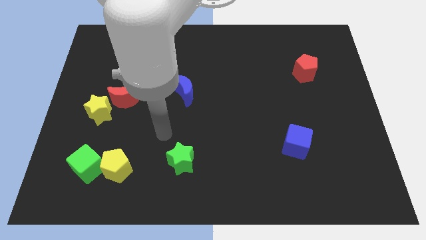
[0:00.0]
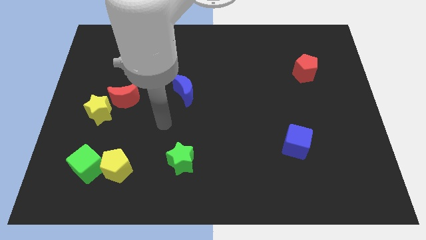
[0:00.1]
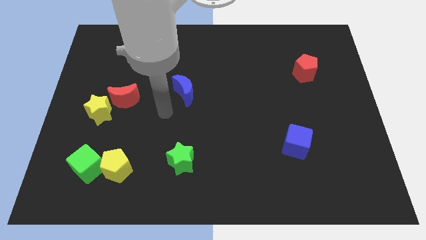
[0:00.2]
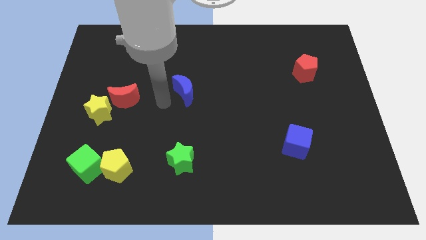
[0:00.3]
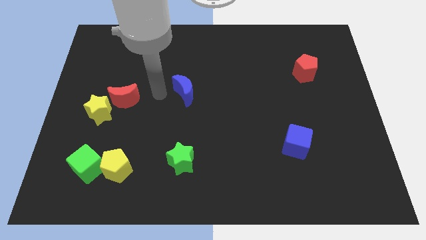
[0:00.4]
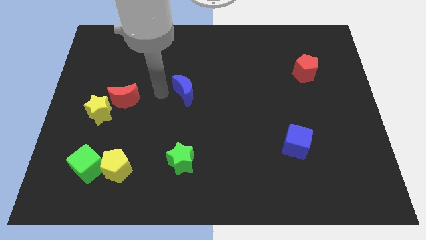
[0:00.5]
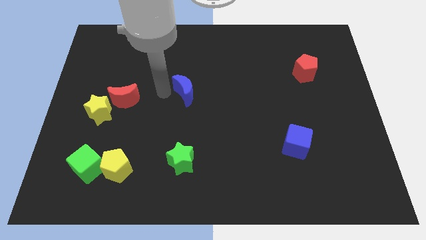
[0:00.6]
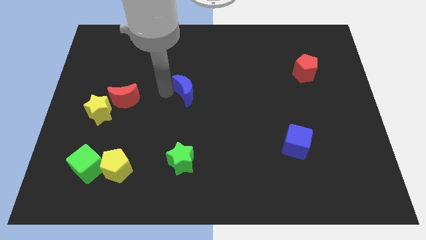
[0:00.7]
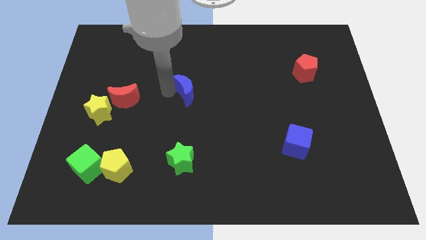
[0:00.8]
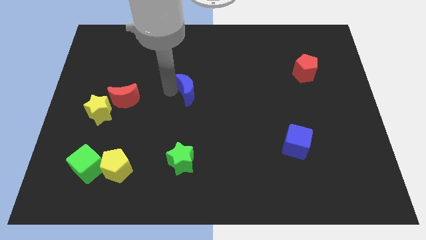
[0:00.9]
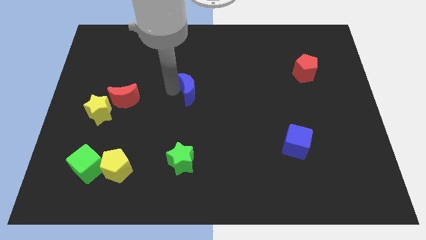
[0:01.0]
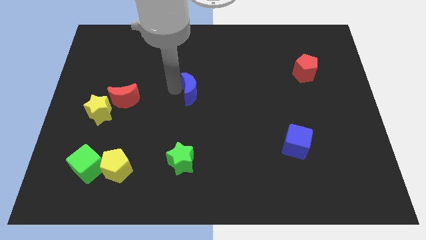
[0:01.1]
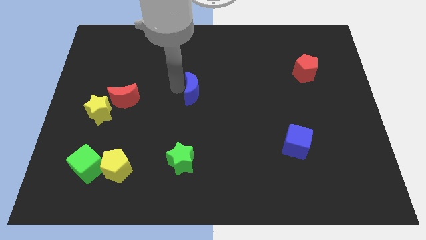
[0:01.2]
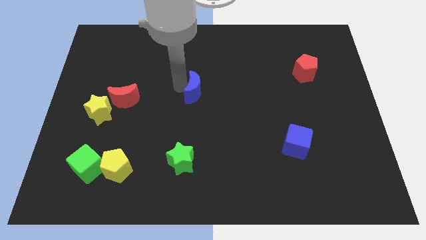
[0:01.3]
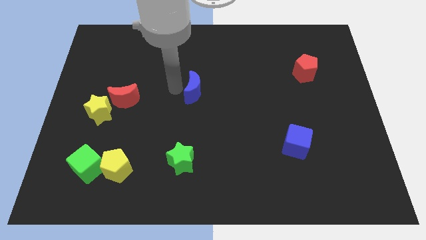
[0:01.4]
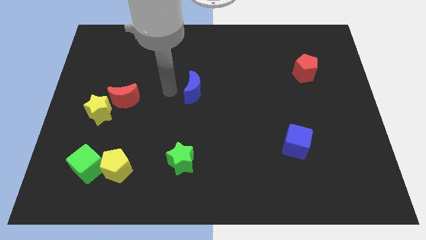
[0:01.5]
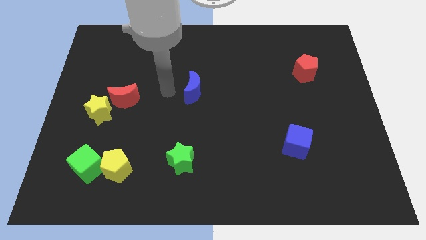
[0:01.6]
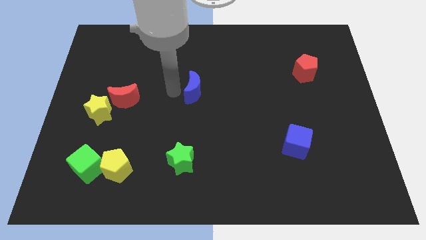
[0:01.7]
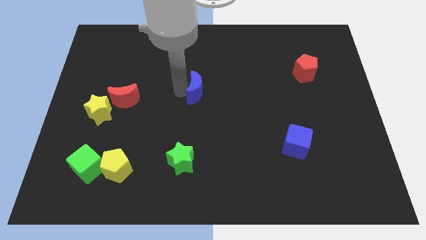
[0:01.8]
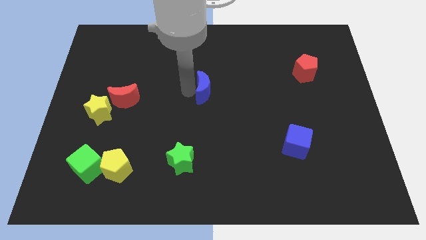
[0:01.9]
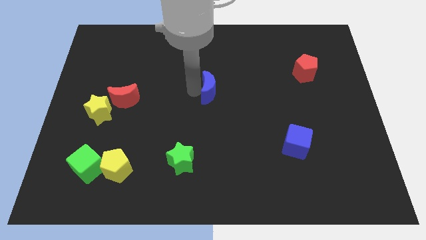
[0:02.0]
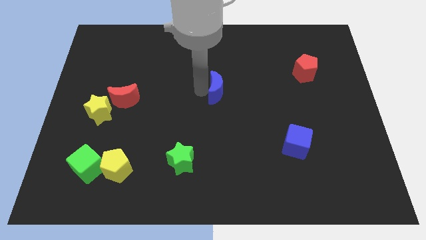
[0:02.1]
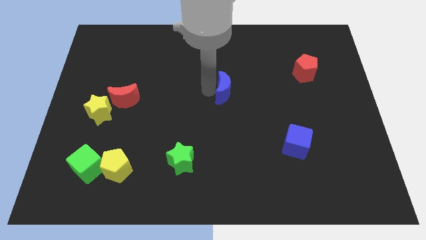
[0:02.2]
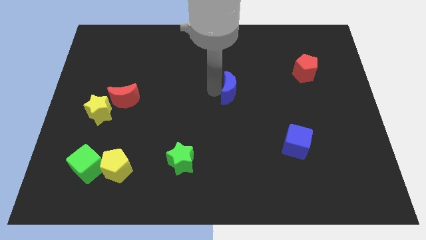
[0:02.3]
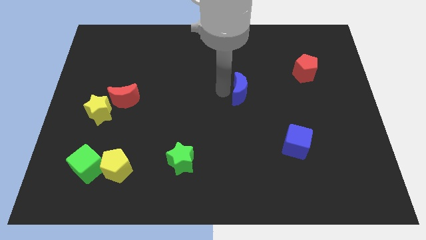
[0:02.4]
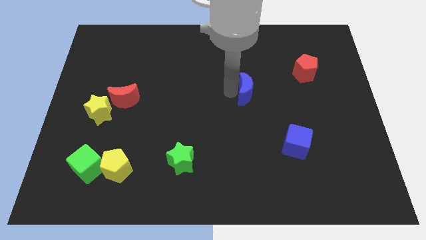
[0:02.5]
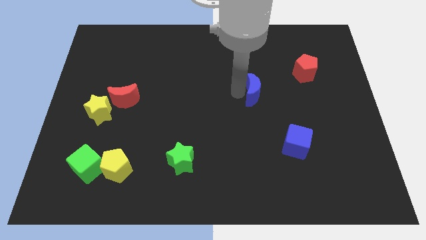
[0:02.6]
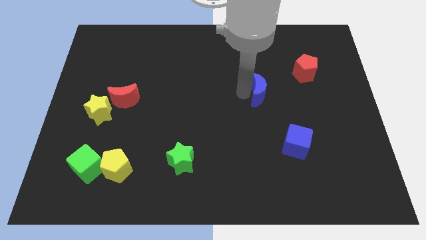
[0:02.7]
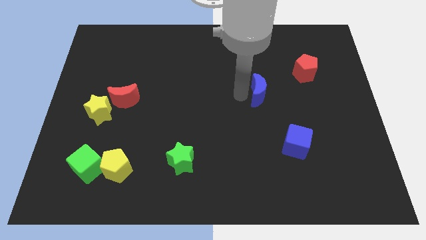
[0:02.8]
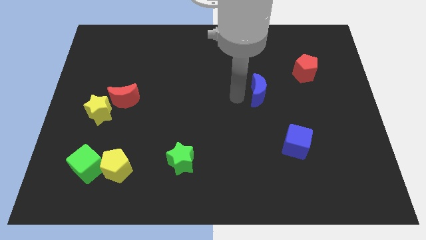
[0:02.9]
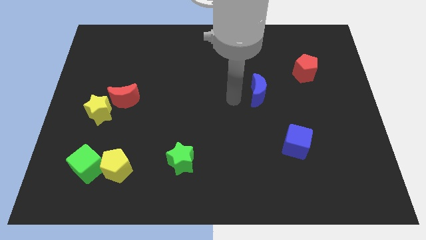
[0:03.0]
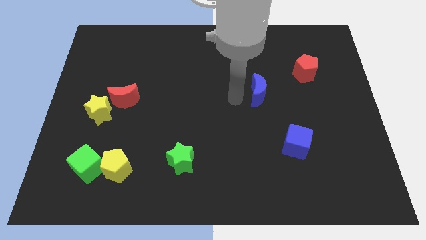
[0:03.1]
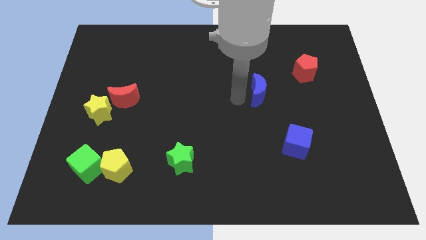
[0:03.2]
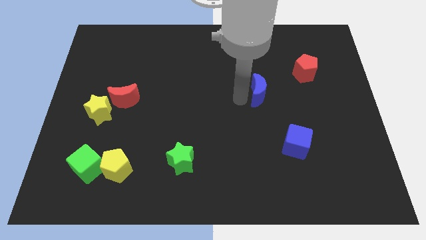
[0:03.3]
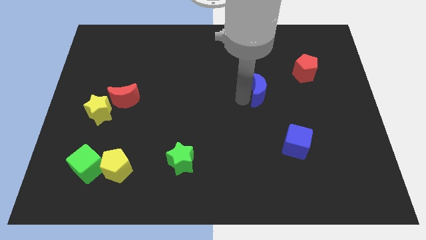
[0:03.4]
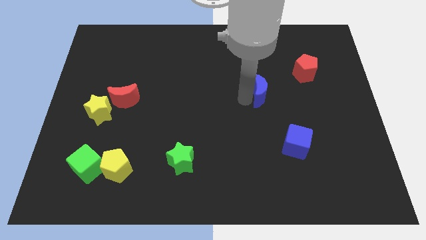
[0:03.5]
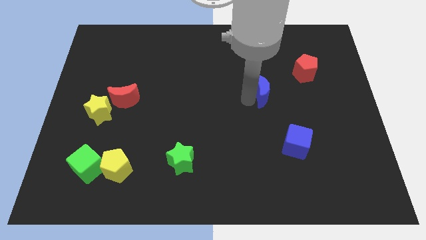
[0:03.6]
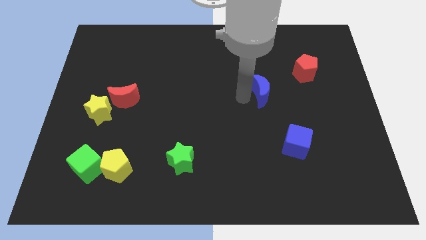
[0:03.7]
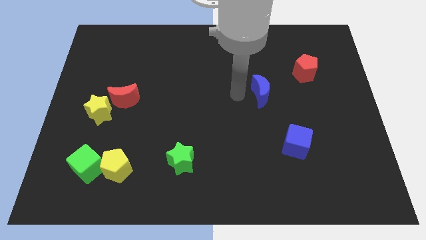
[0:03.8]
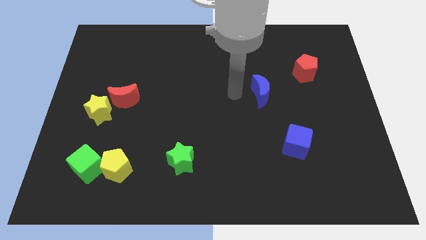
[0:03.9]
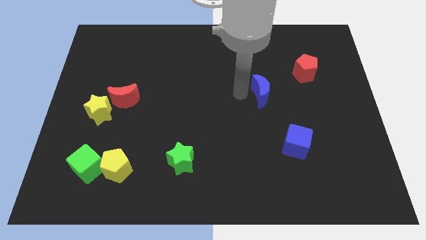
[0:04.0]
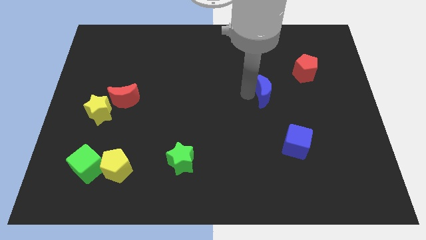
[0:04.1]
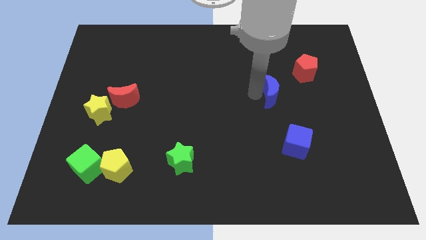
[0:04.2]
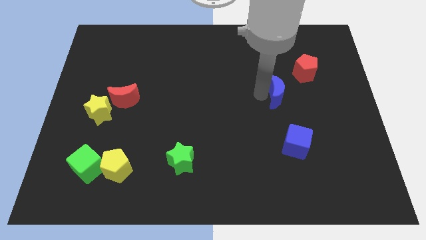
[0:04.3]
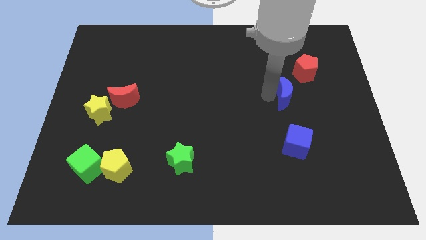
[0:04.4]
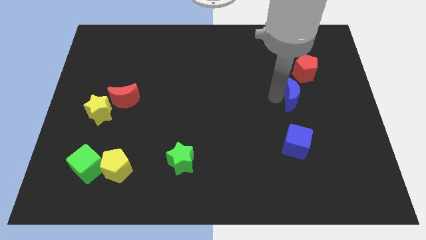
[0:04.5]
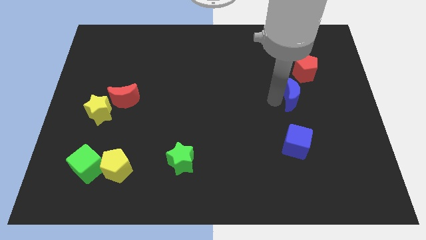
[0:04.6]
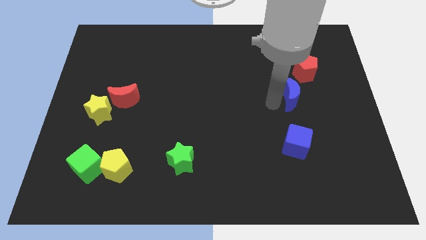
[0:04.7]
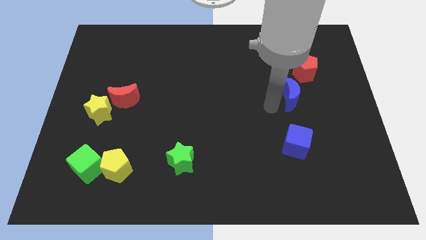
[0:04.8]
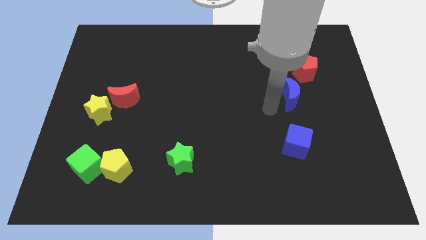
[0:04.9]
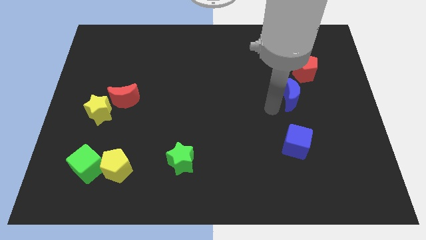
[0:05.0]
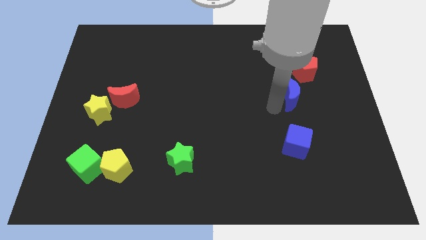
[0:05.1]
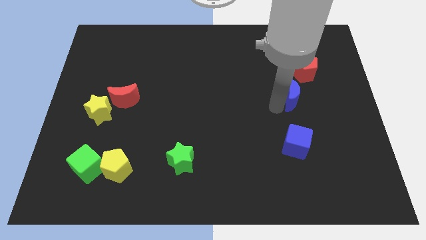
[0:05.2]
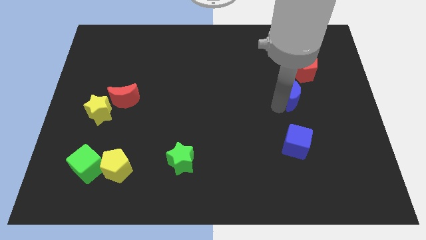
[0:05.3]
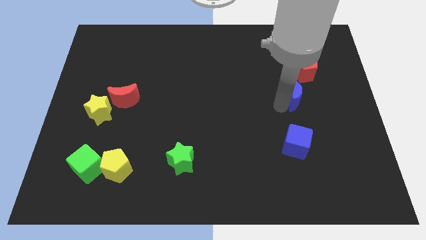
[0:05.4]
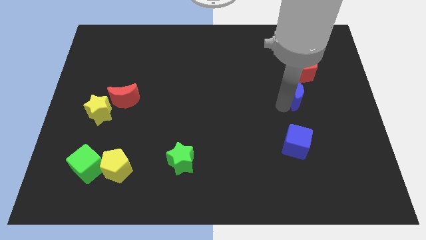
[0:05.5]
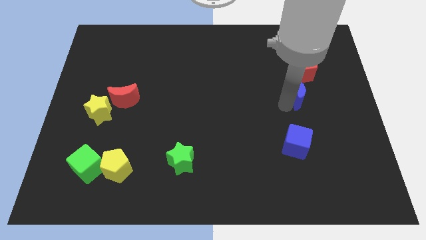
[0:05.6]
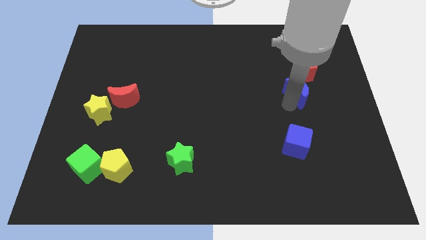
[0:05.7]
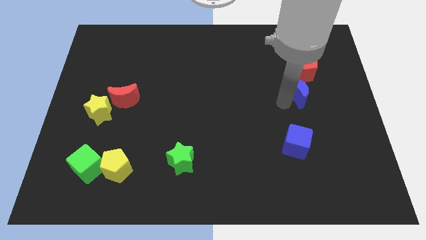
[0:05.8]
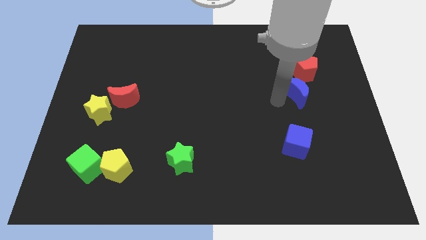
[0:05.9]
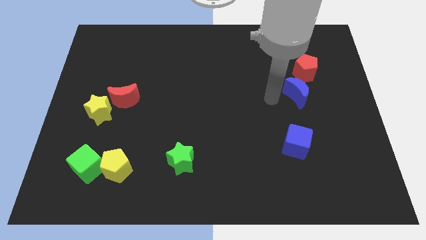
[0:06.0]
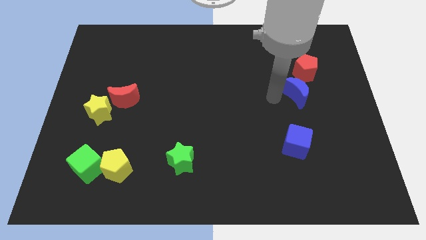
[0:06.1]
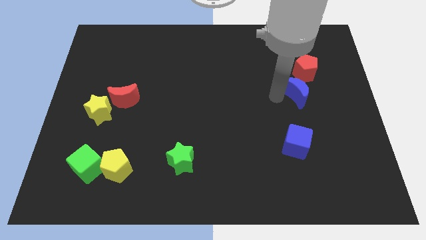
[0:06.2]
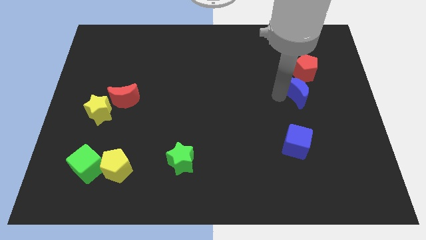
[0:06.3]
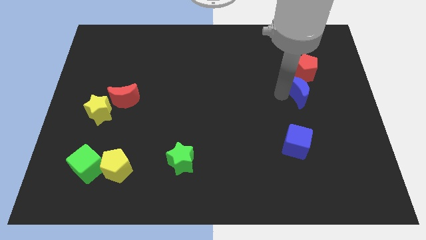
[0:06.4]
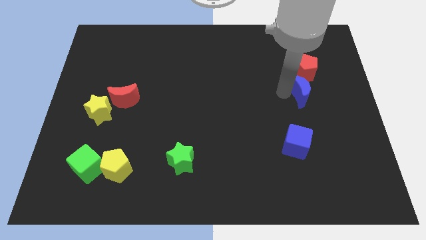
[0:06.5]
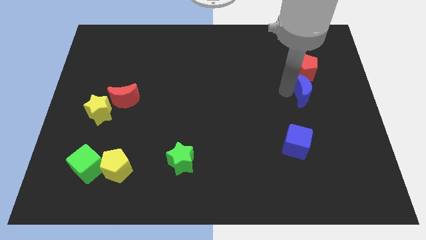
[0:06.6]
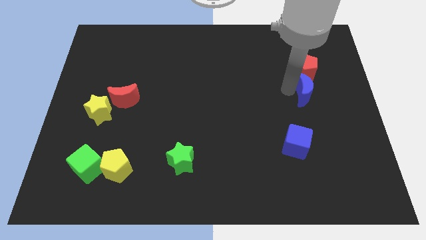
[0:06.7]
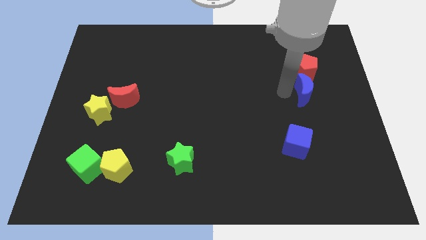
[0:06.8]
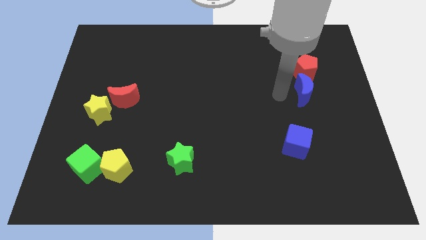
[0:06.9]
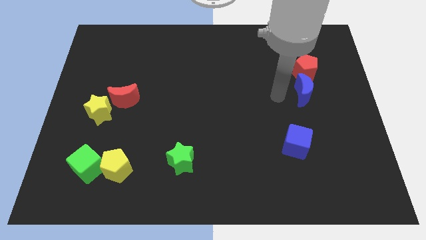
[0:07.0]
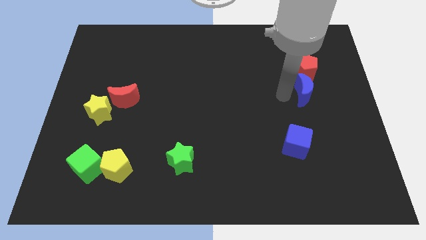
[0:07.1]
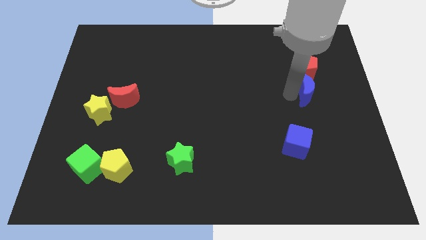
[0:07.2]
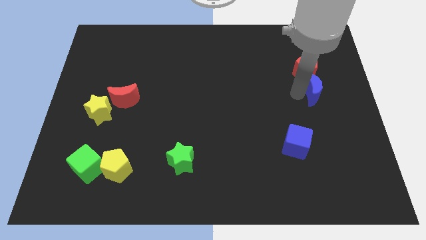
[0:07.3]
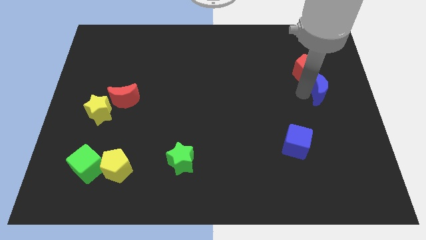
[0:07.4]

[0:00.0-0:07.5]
push the blue moon to the right side of the board
